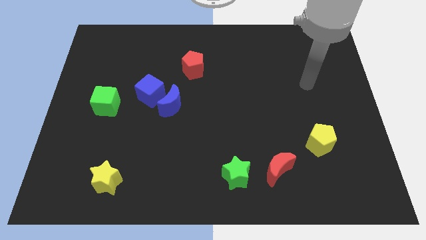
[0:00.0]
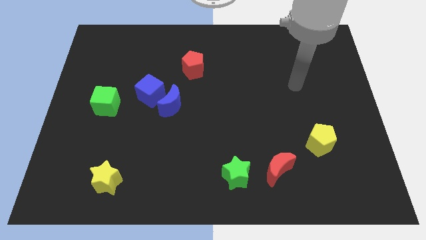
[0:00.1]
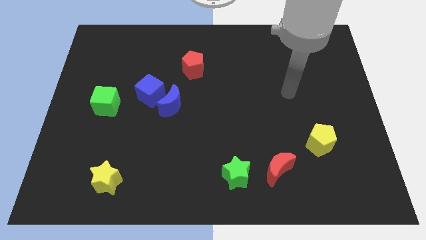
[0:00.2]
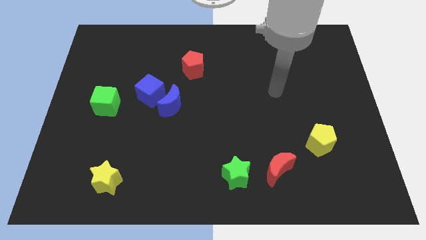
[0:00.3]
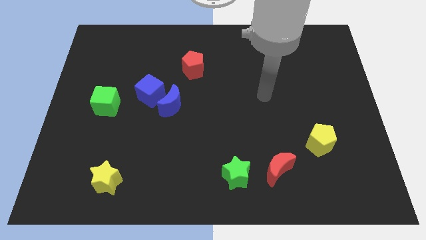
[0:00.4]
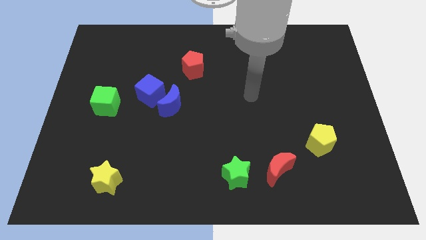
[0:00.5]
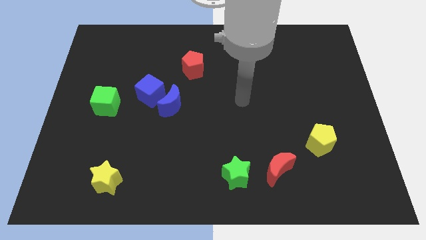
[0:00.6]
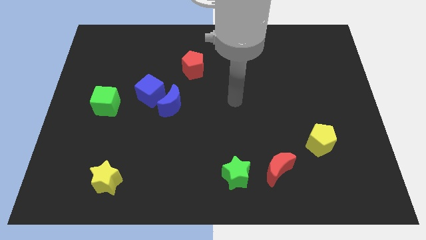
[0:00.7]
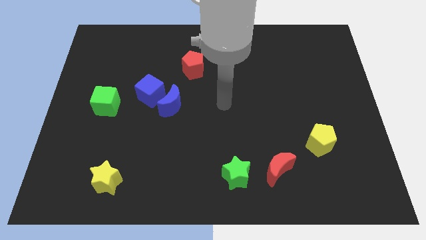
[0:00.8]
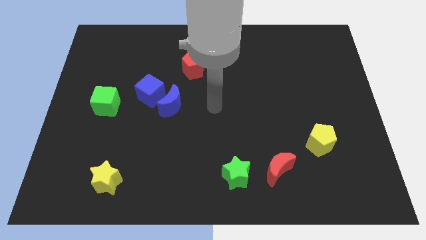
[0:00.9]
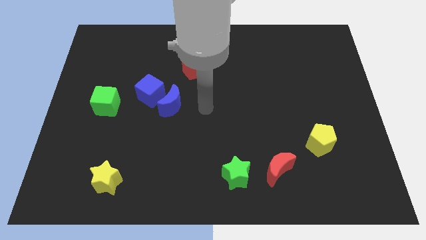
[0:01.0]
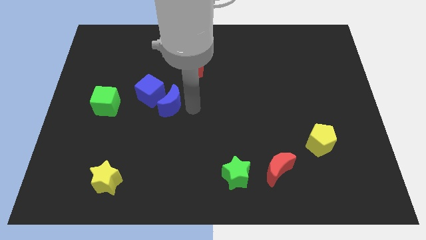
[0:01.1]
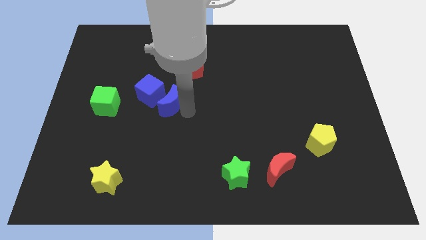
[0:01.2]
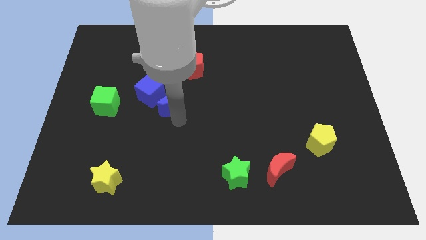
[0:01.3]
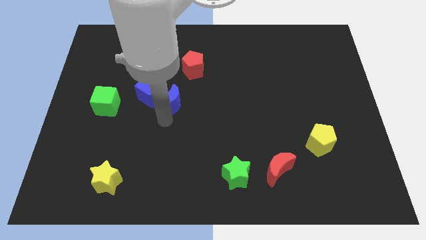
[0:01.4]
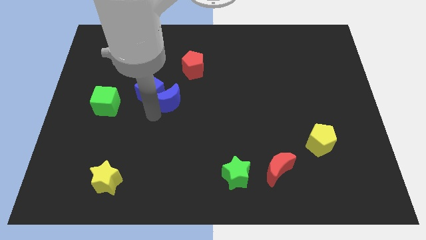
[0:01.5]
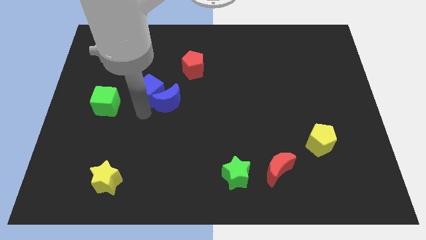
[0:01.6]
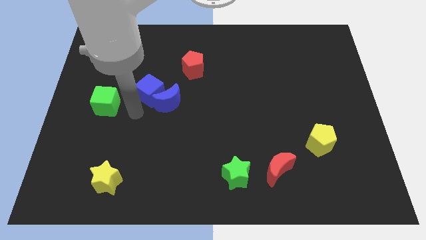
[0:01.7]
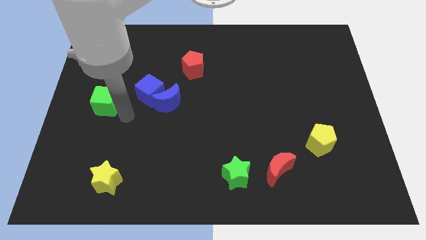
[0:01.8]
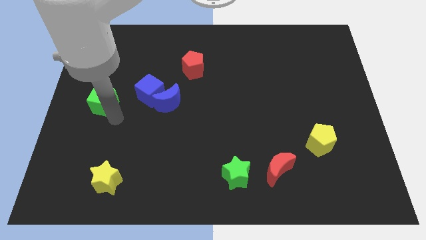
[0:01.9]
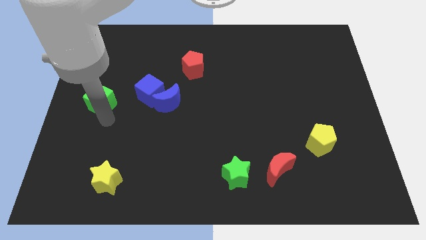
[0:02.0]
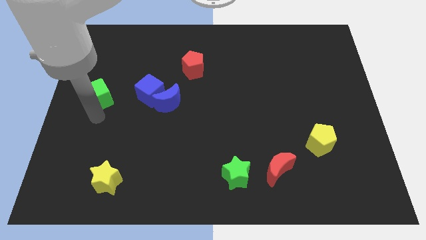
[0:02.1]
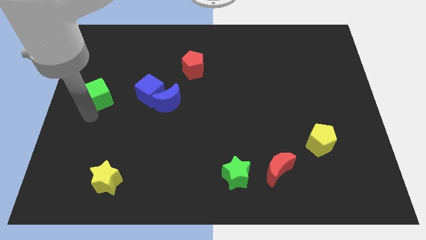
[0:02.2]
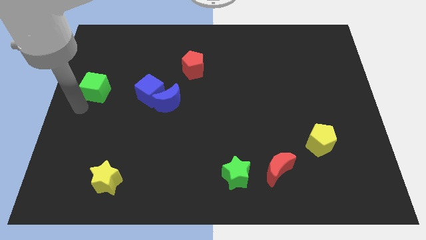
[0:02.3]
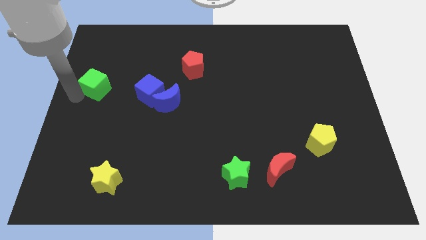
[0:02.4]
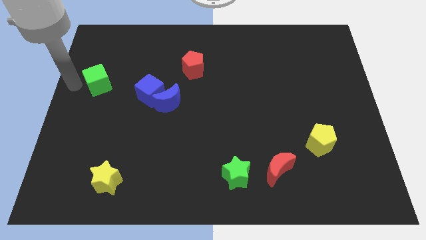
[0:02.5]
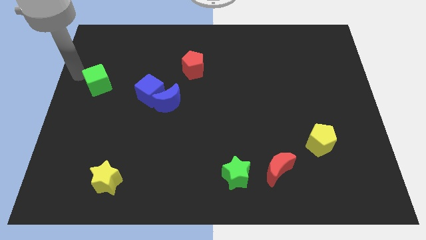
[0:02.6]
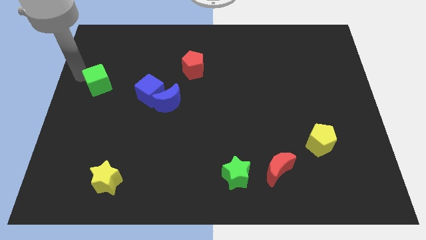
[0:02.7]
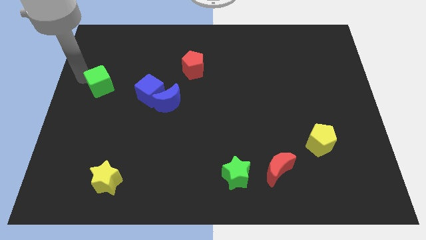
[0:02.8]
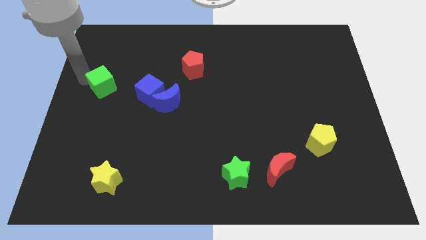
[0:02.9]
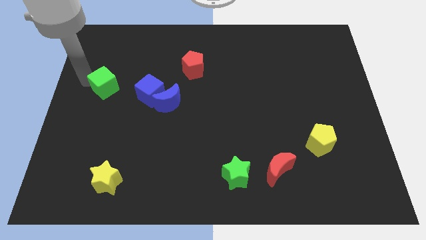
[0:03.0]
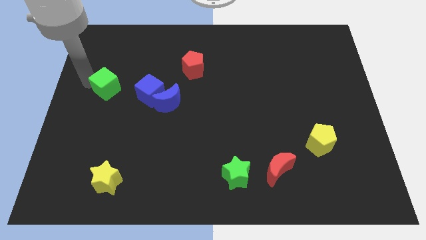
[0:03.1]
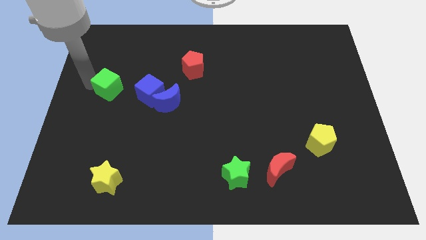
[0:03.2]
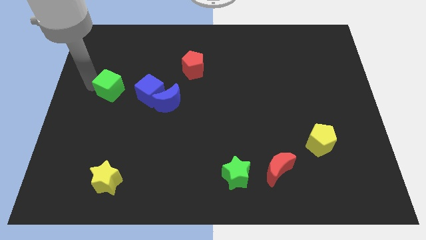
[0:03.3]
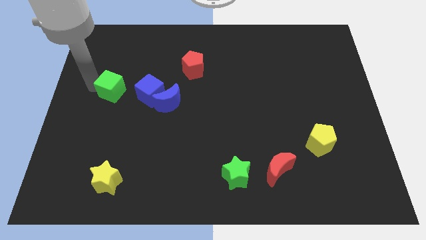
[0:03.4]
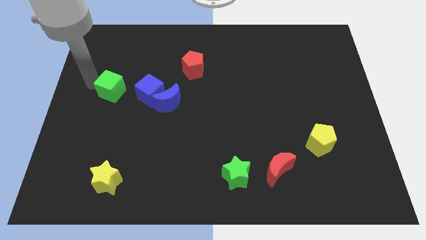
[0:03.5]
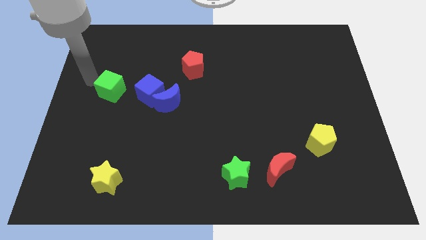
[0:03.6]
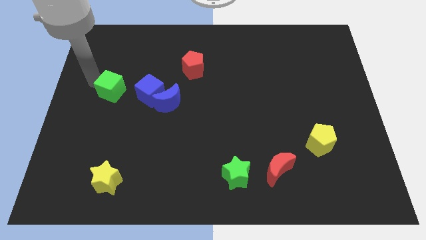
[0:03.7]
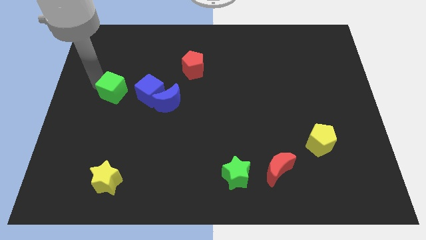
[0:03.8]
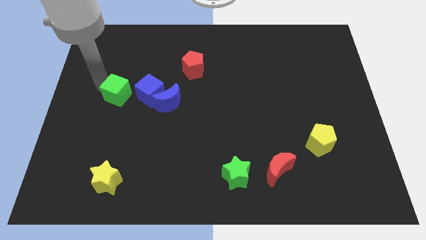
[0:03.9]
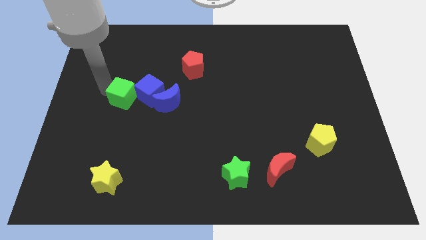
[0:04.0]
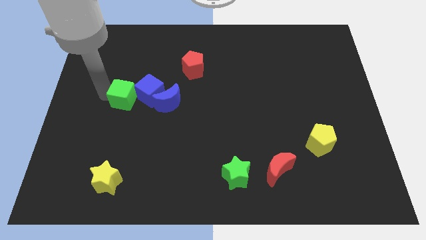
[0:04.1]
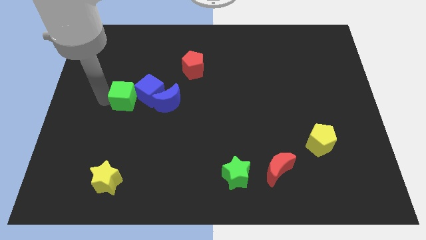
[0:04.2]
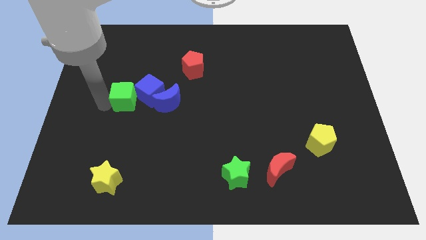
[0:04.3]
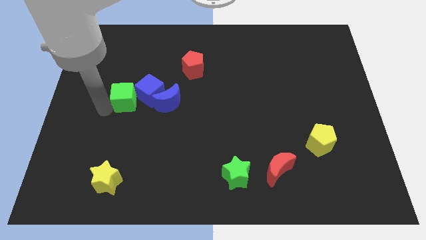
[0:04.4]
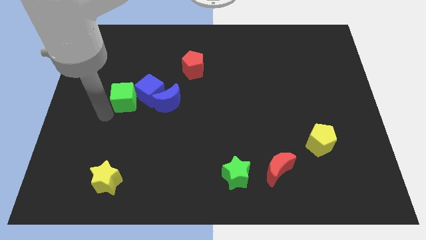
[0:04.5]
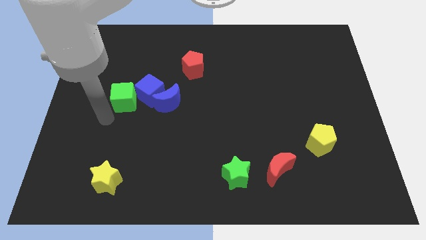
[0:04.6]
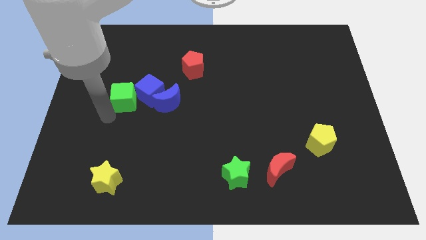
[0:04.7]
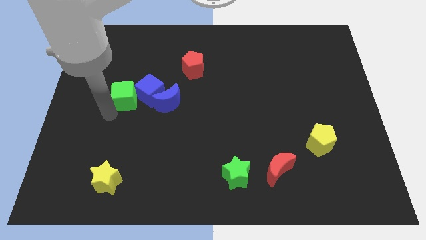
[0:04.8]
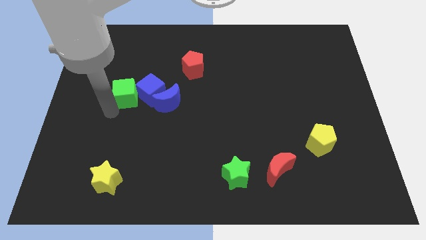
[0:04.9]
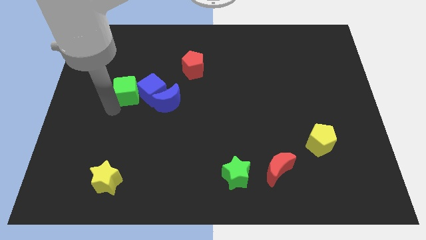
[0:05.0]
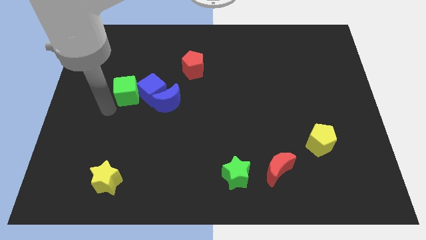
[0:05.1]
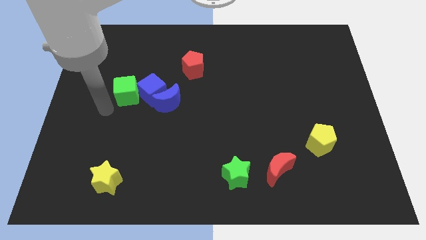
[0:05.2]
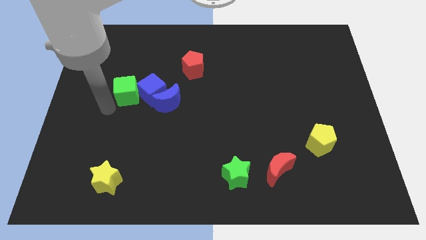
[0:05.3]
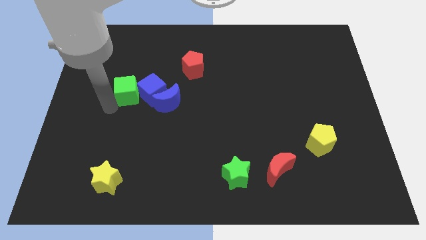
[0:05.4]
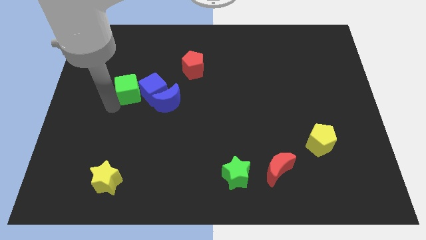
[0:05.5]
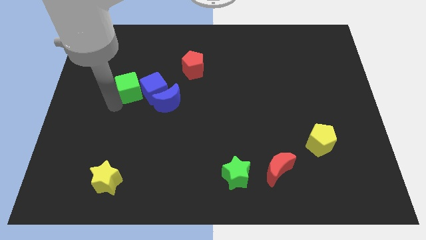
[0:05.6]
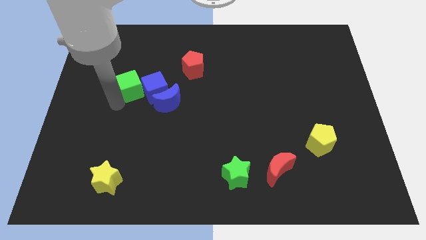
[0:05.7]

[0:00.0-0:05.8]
slightly push the green cube diagonally upwards and right

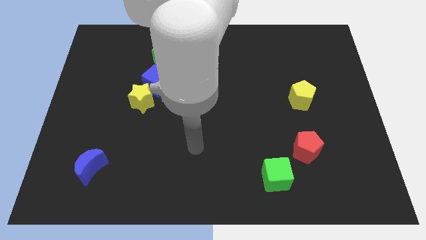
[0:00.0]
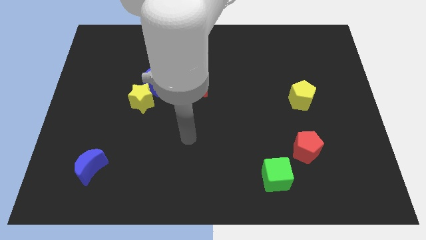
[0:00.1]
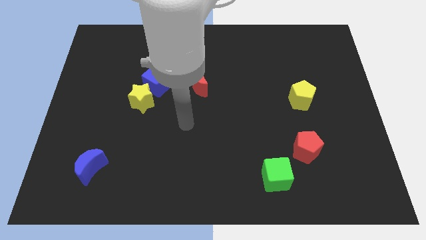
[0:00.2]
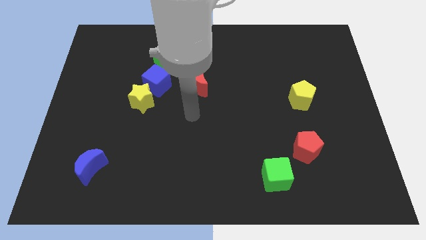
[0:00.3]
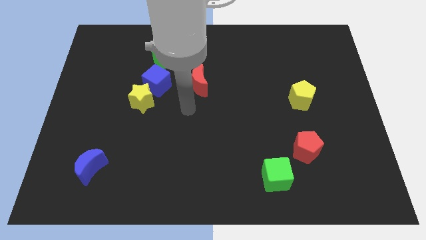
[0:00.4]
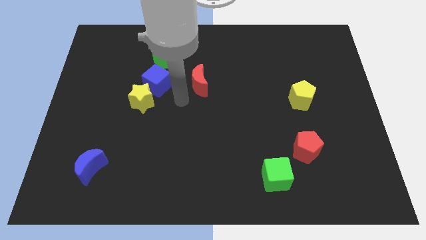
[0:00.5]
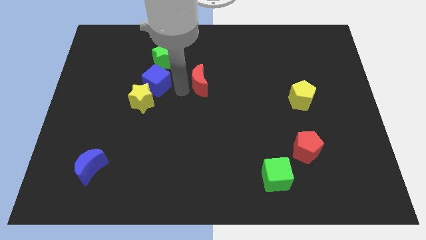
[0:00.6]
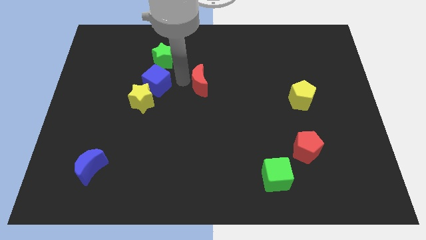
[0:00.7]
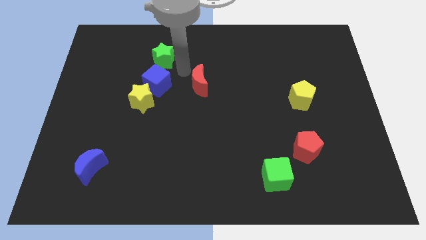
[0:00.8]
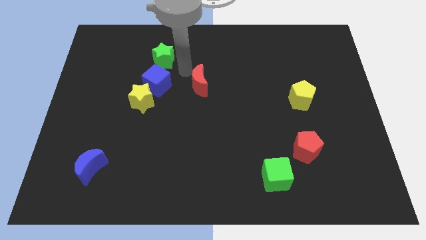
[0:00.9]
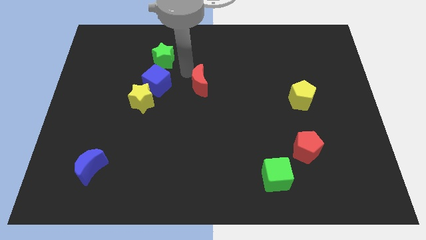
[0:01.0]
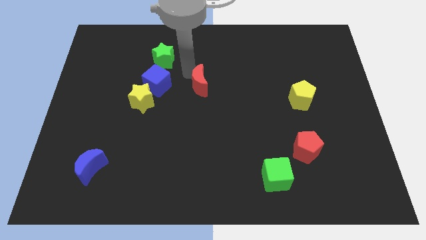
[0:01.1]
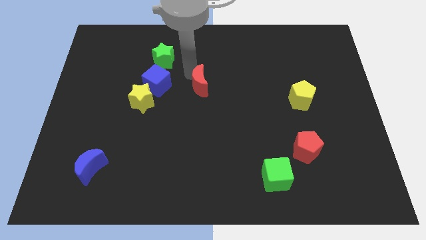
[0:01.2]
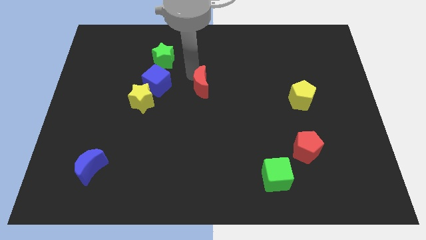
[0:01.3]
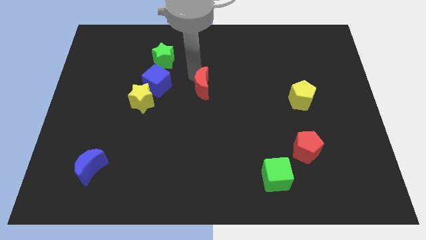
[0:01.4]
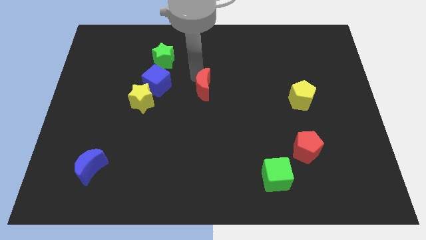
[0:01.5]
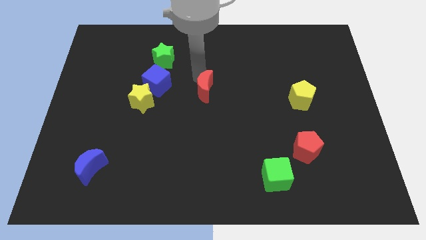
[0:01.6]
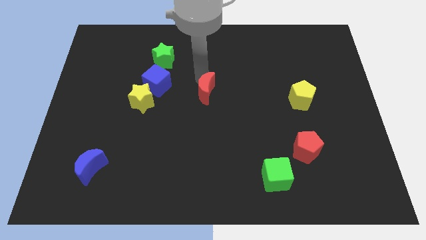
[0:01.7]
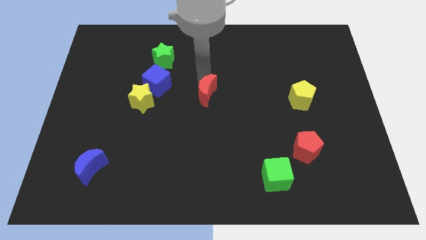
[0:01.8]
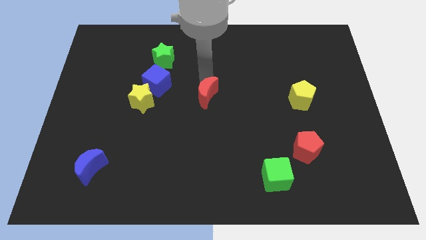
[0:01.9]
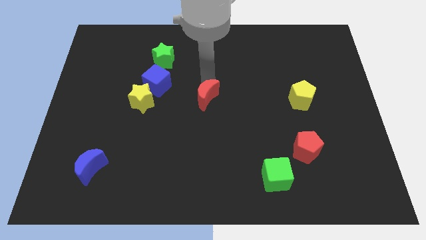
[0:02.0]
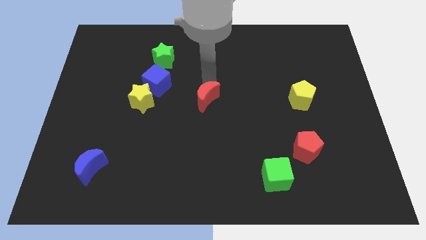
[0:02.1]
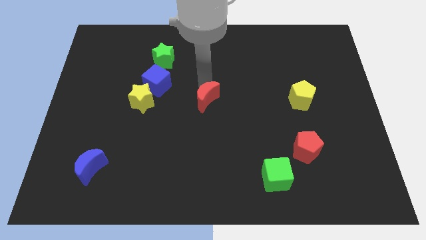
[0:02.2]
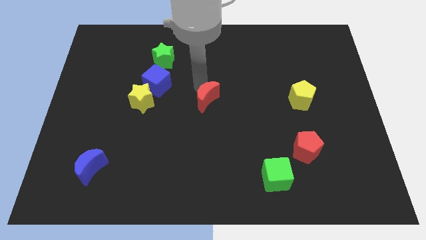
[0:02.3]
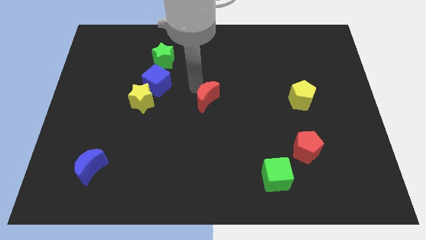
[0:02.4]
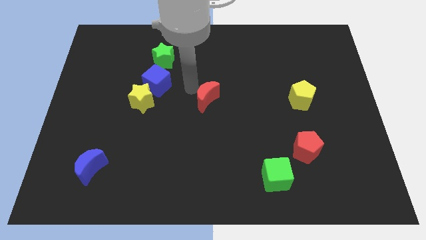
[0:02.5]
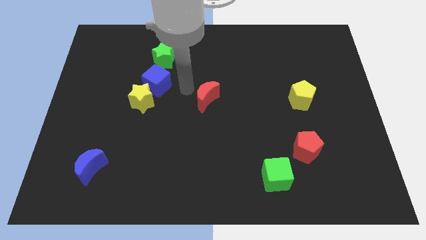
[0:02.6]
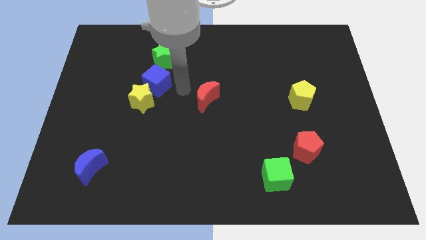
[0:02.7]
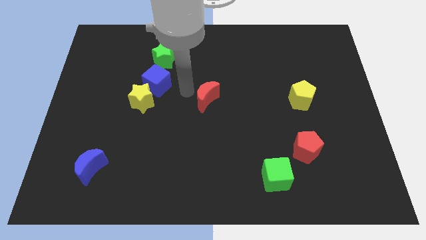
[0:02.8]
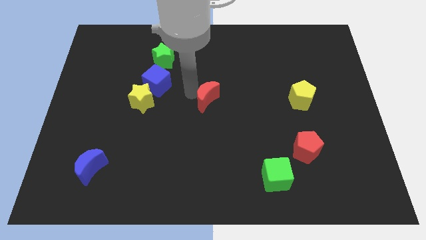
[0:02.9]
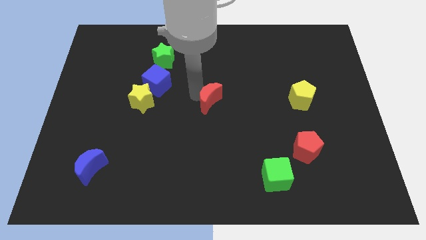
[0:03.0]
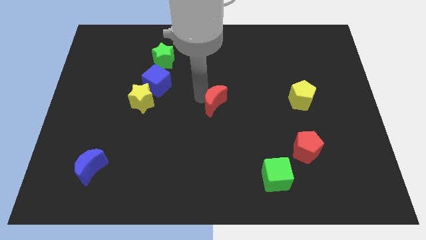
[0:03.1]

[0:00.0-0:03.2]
slightly push the red moon diagonally down and right
